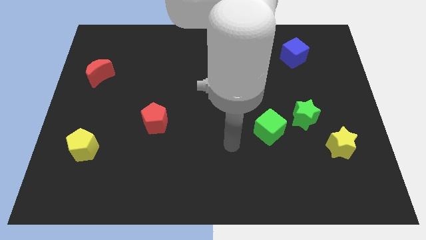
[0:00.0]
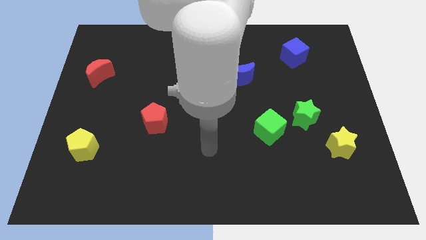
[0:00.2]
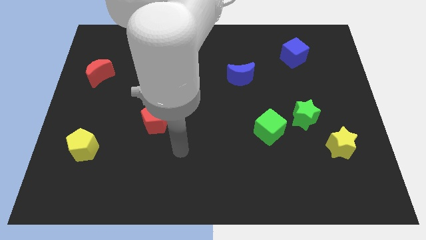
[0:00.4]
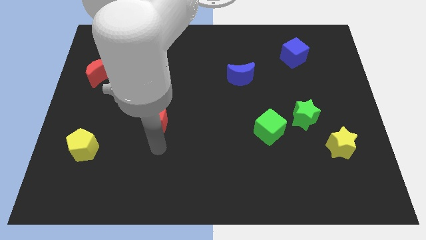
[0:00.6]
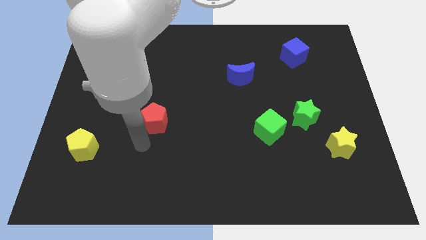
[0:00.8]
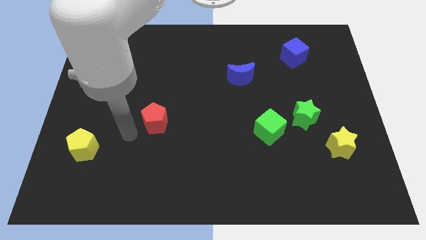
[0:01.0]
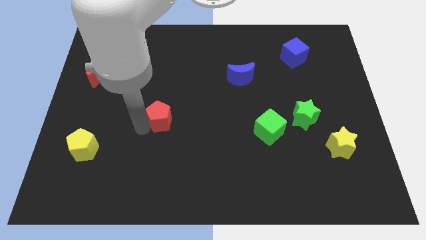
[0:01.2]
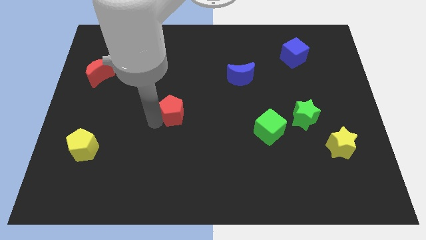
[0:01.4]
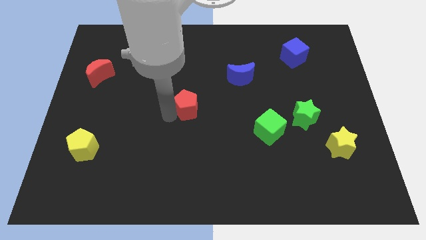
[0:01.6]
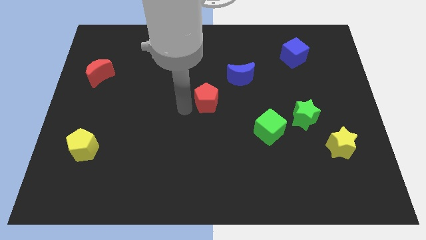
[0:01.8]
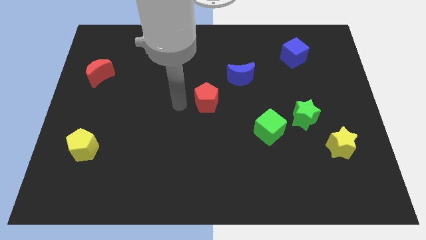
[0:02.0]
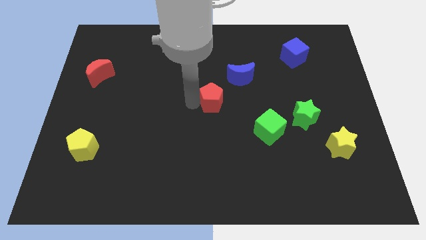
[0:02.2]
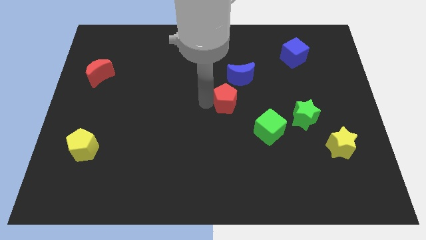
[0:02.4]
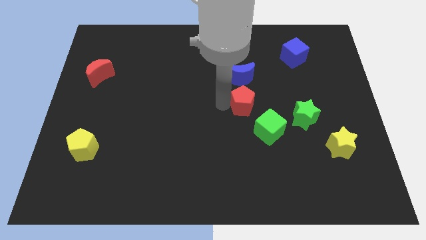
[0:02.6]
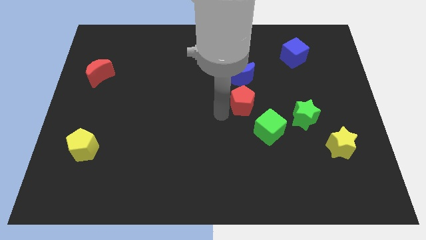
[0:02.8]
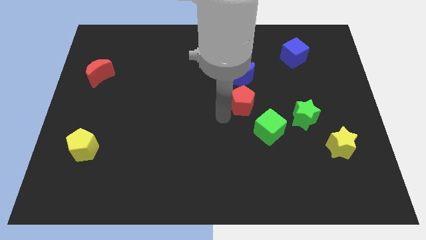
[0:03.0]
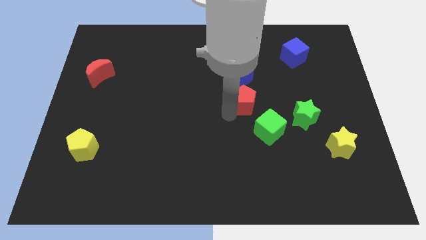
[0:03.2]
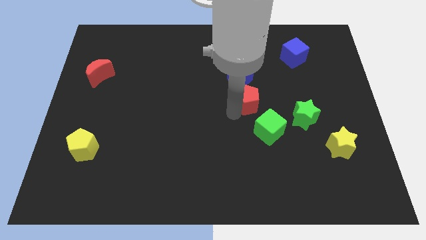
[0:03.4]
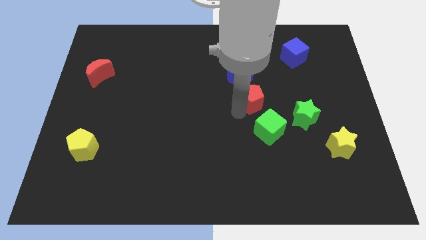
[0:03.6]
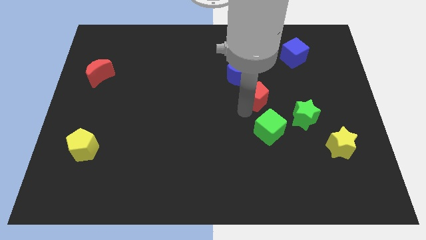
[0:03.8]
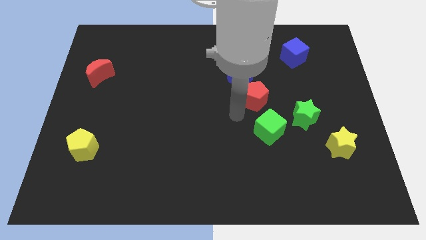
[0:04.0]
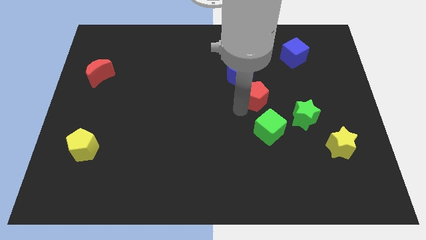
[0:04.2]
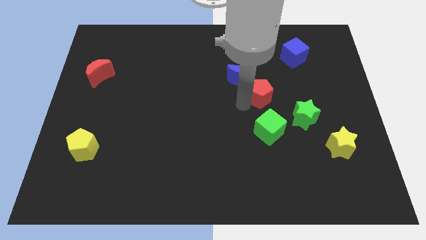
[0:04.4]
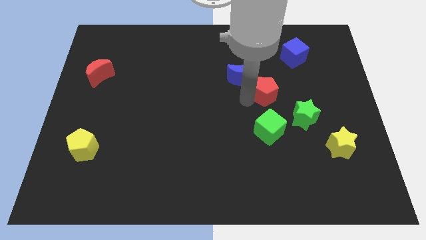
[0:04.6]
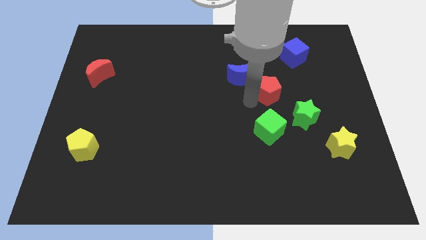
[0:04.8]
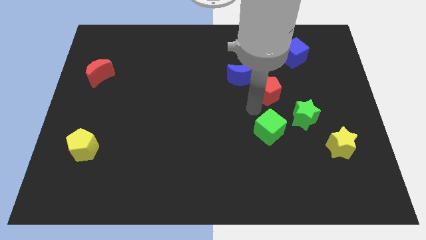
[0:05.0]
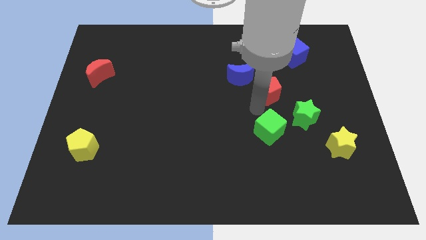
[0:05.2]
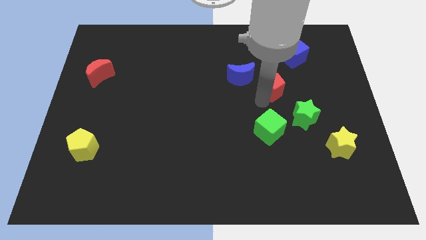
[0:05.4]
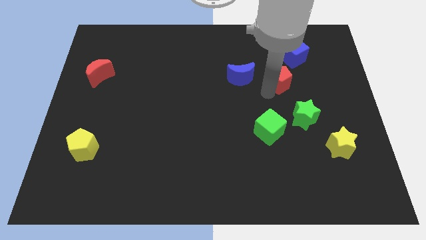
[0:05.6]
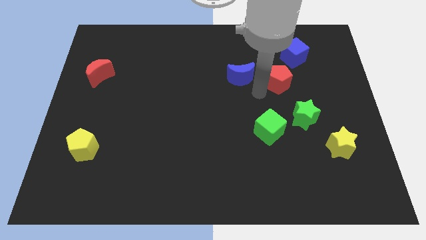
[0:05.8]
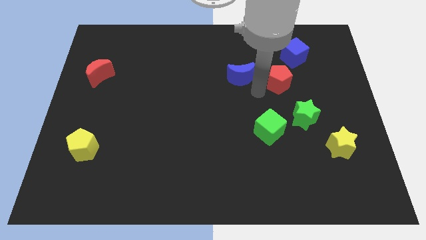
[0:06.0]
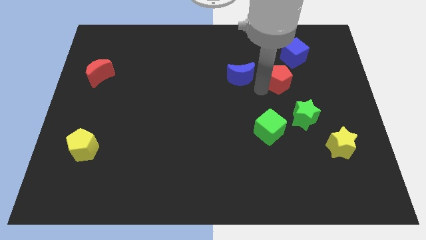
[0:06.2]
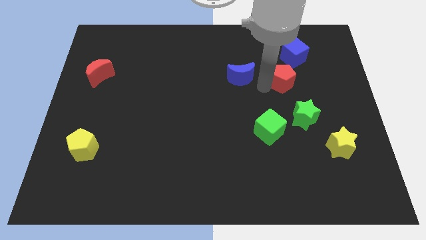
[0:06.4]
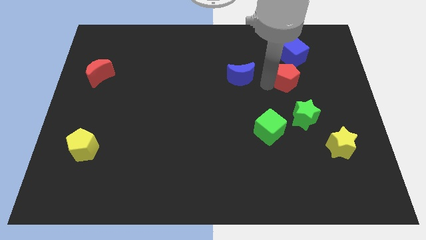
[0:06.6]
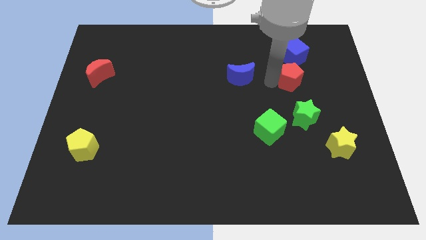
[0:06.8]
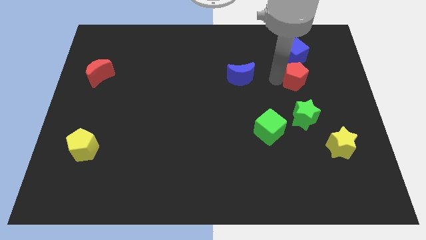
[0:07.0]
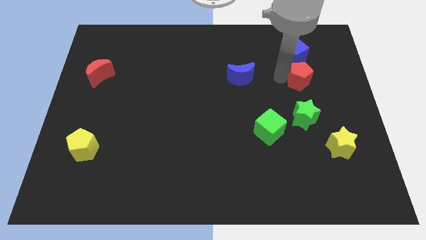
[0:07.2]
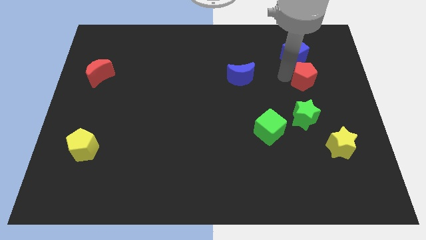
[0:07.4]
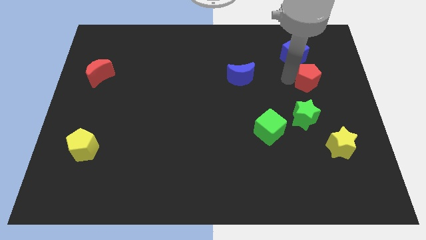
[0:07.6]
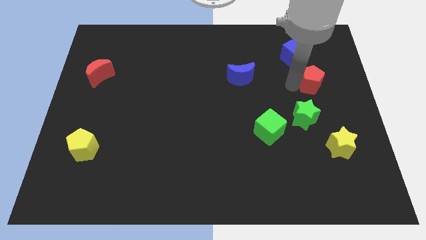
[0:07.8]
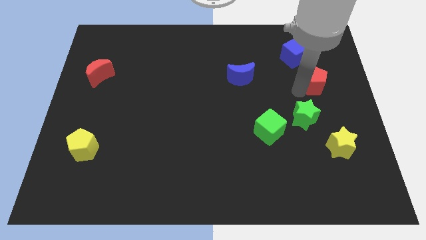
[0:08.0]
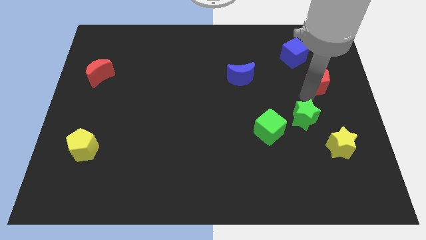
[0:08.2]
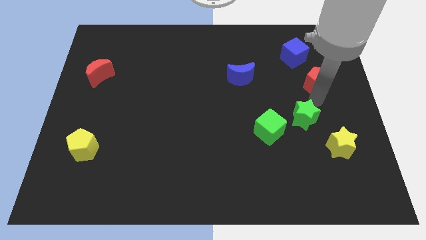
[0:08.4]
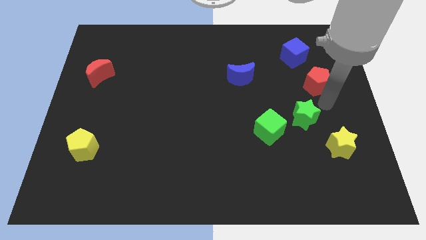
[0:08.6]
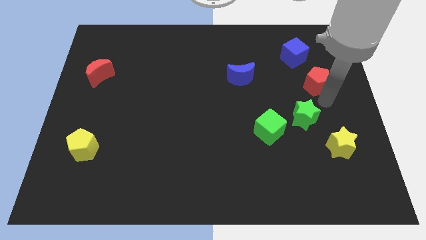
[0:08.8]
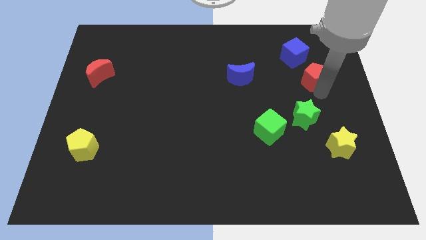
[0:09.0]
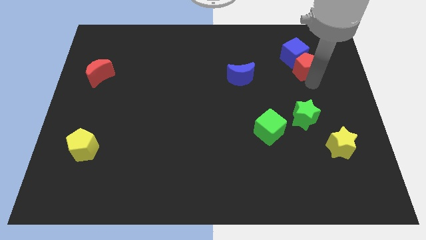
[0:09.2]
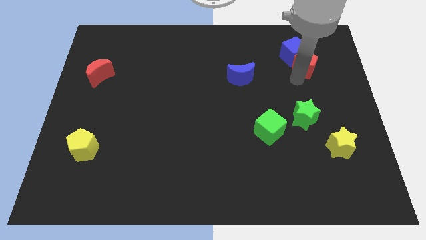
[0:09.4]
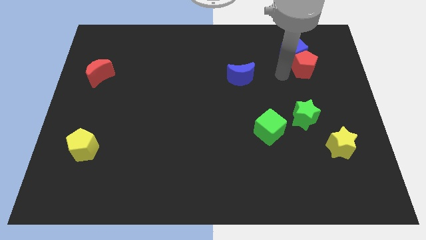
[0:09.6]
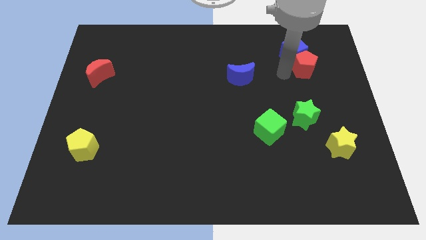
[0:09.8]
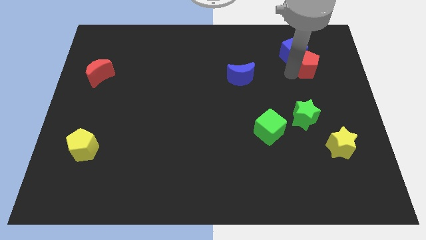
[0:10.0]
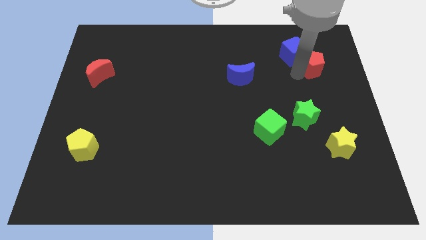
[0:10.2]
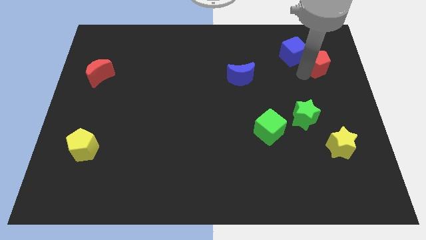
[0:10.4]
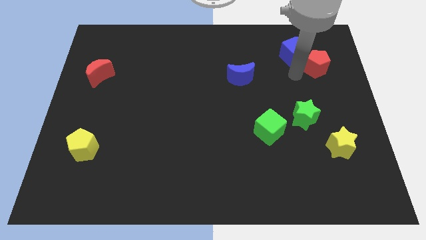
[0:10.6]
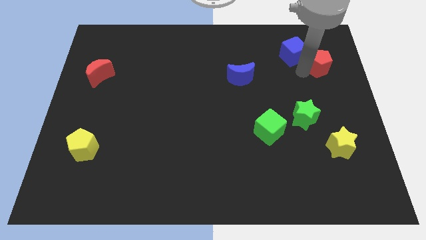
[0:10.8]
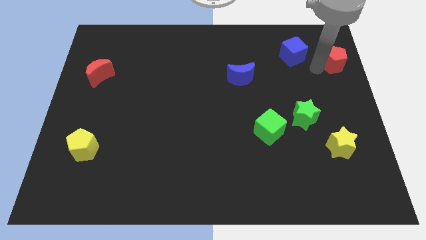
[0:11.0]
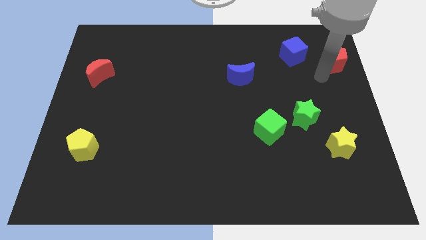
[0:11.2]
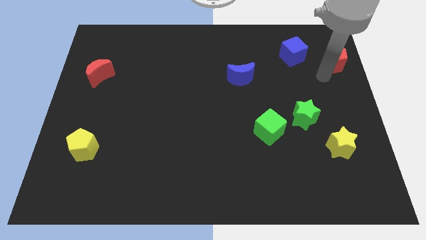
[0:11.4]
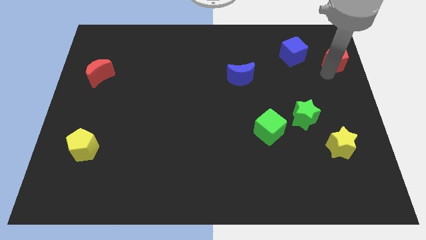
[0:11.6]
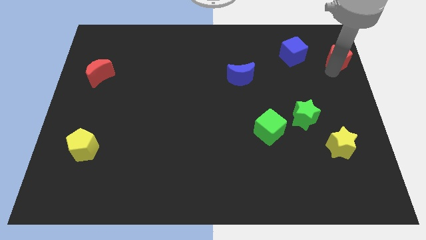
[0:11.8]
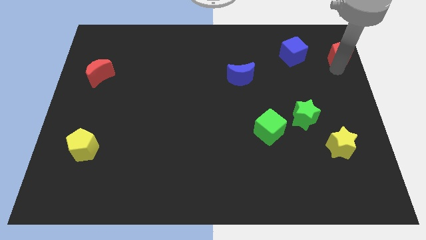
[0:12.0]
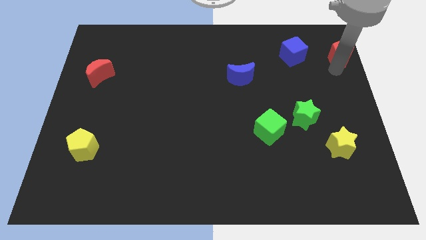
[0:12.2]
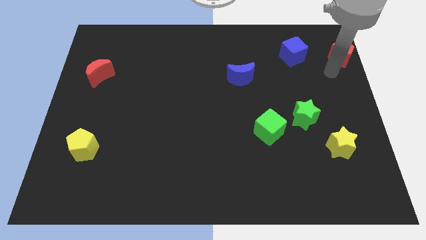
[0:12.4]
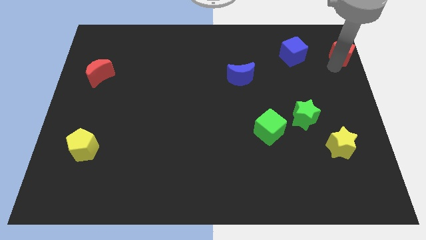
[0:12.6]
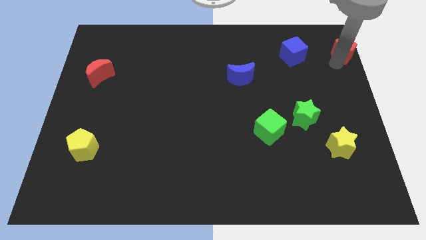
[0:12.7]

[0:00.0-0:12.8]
push the red pentagon to the top right corner

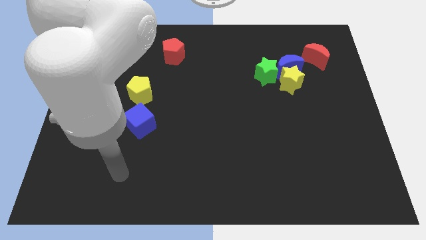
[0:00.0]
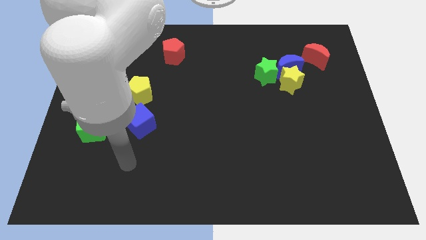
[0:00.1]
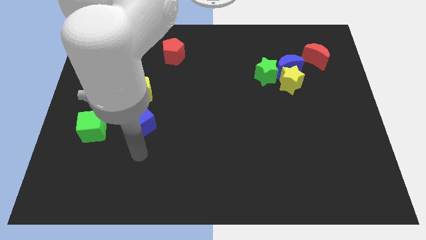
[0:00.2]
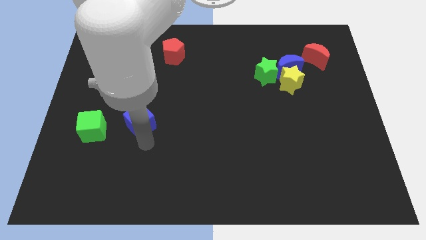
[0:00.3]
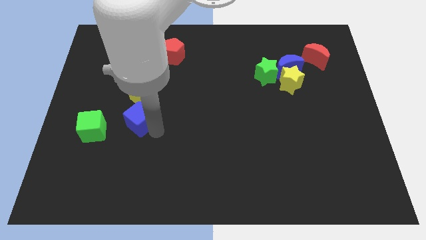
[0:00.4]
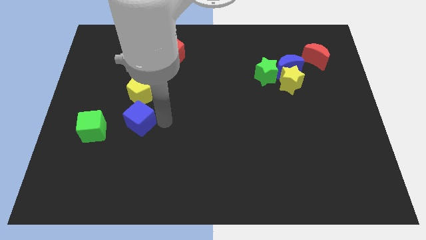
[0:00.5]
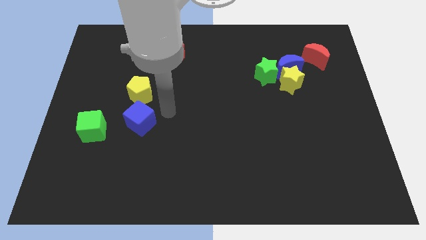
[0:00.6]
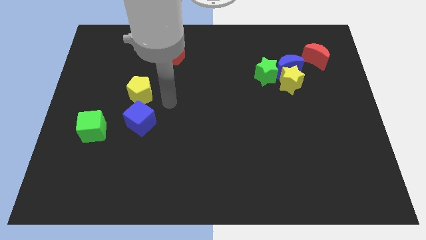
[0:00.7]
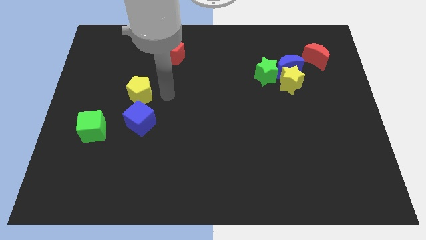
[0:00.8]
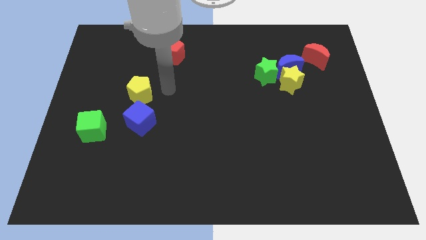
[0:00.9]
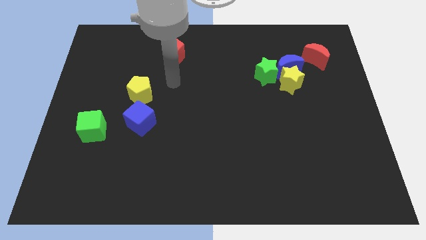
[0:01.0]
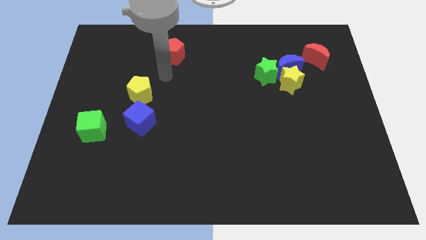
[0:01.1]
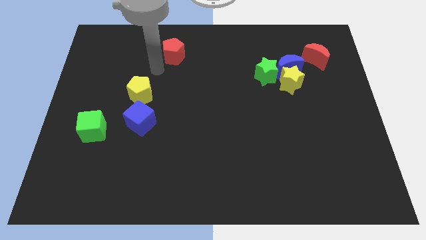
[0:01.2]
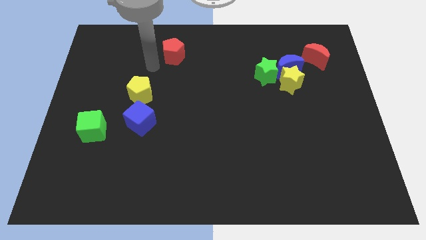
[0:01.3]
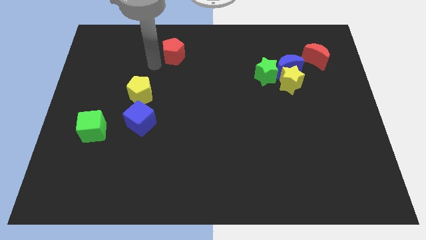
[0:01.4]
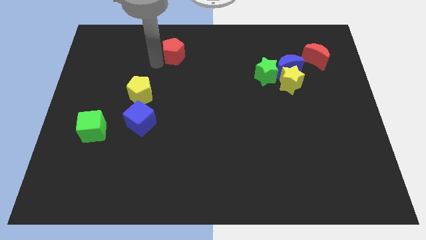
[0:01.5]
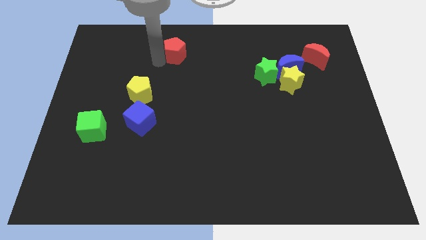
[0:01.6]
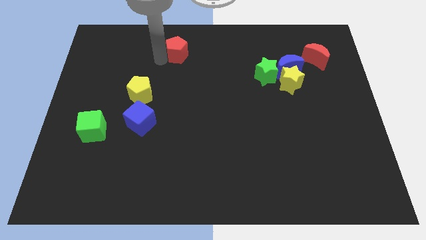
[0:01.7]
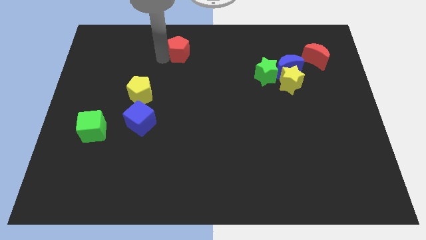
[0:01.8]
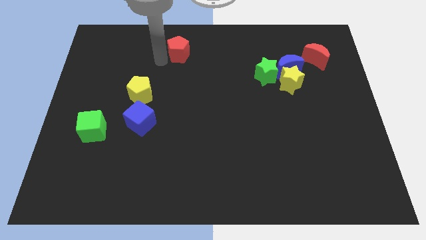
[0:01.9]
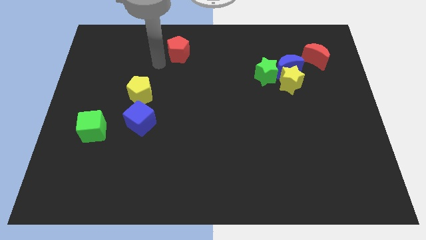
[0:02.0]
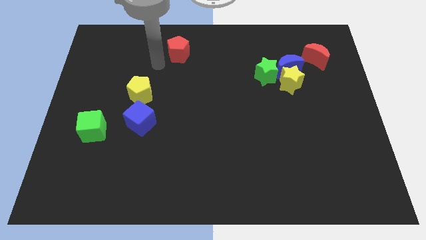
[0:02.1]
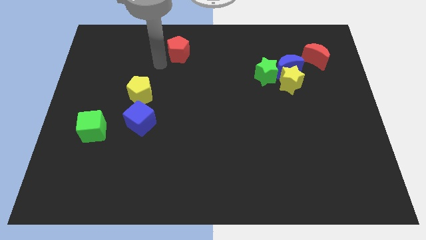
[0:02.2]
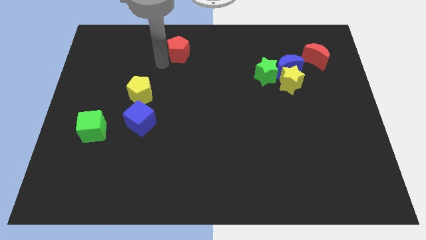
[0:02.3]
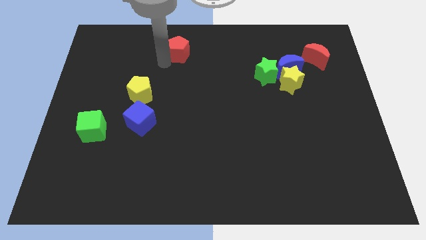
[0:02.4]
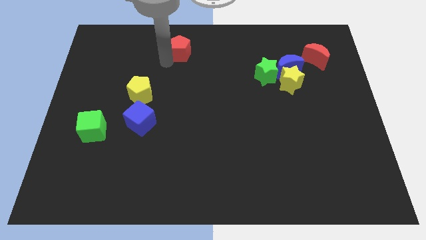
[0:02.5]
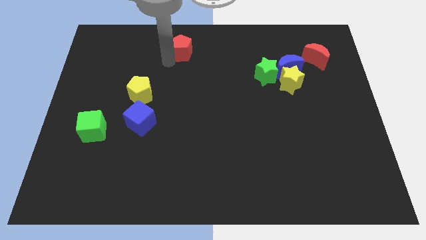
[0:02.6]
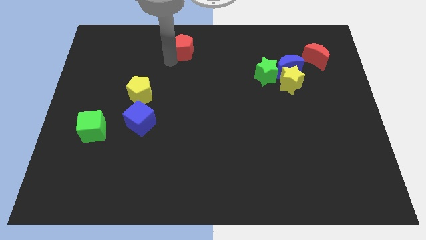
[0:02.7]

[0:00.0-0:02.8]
push the red pentagon to the towards your base
